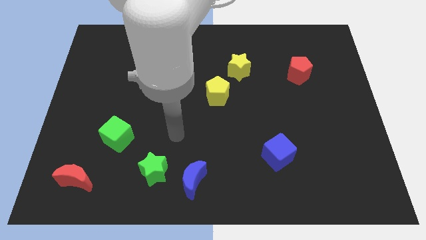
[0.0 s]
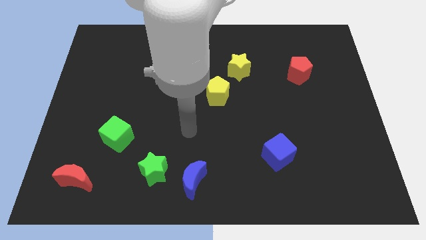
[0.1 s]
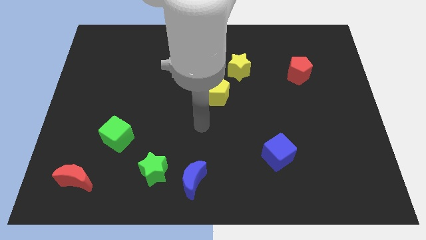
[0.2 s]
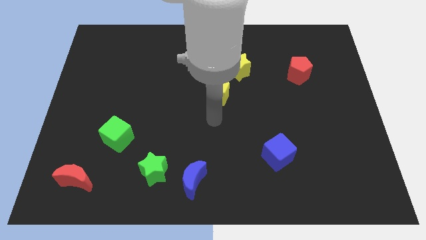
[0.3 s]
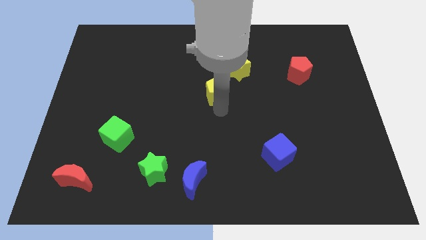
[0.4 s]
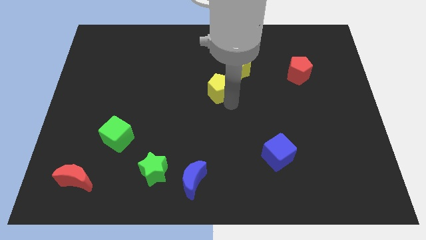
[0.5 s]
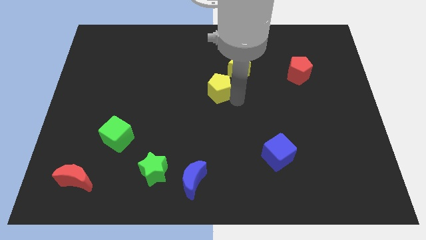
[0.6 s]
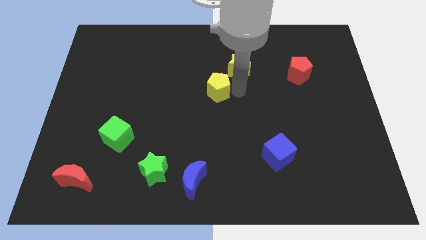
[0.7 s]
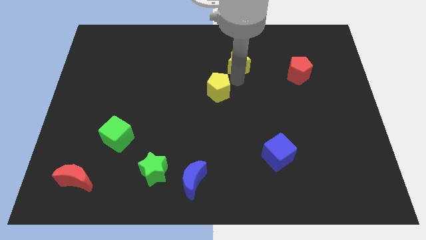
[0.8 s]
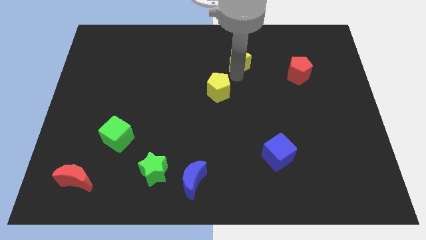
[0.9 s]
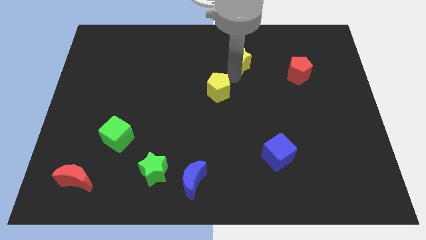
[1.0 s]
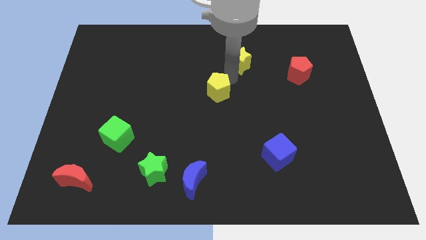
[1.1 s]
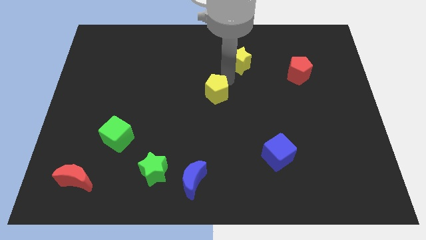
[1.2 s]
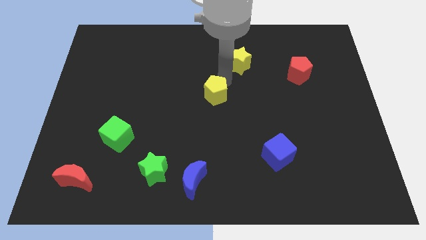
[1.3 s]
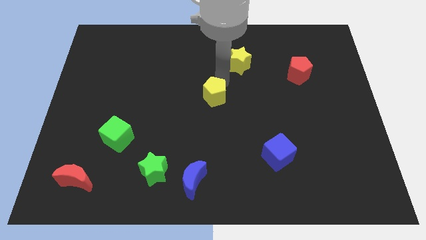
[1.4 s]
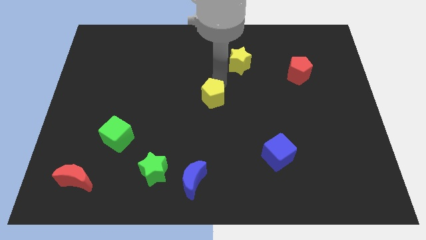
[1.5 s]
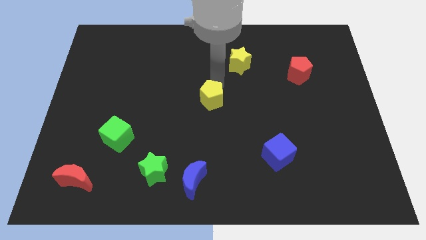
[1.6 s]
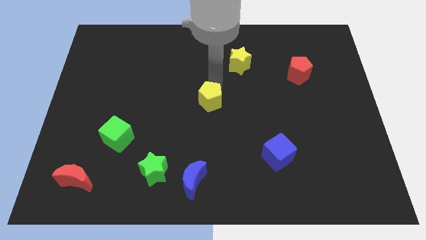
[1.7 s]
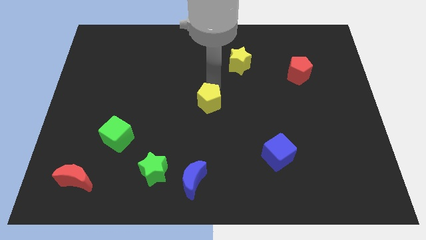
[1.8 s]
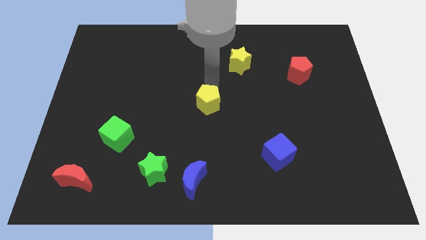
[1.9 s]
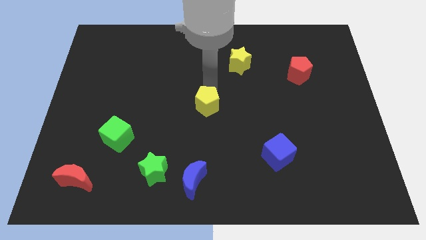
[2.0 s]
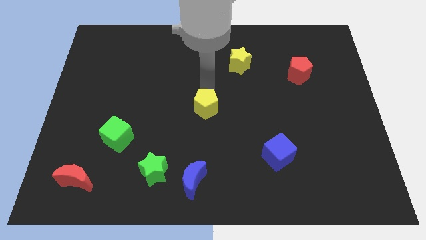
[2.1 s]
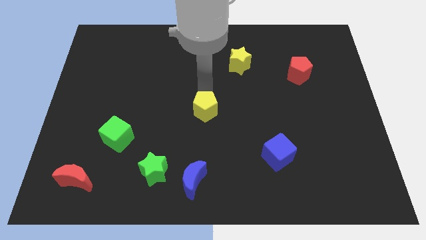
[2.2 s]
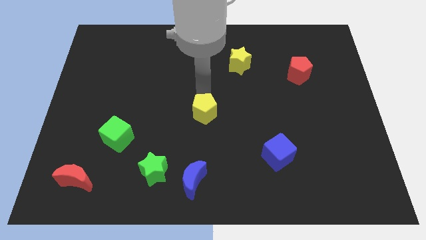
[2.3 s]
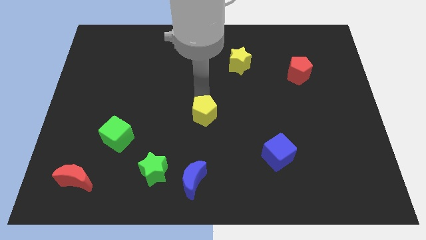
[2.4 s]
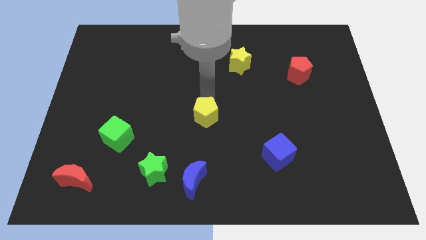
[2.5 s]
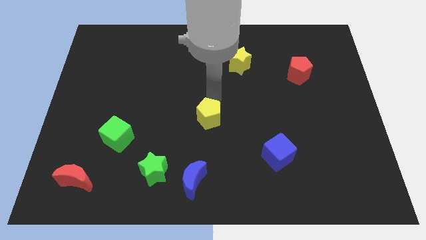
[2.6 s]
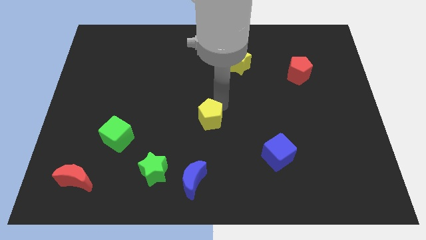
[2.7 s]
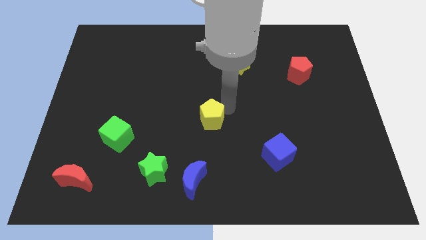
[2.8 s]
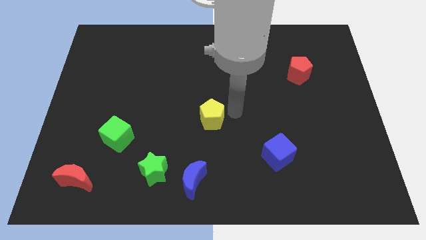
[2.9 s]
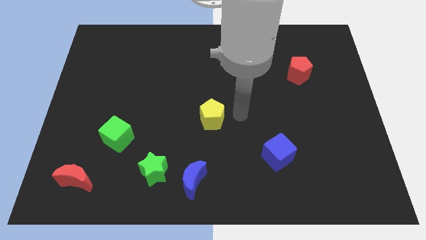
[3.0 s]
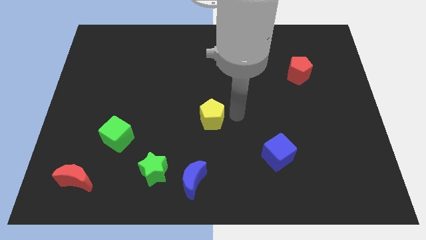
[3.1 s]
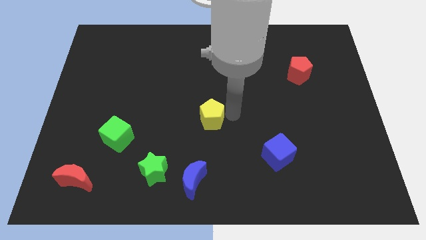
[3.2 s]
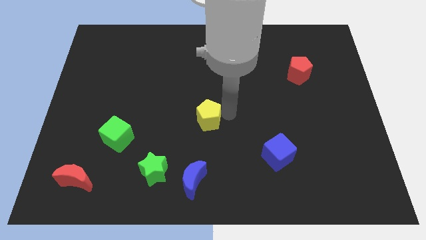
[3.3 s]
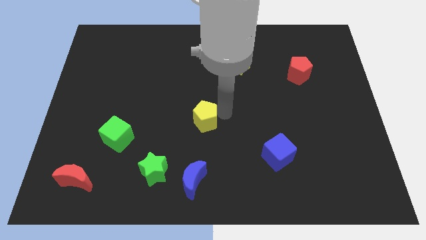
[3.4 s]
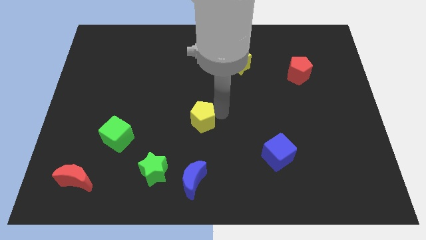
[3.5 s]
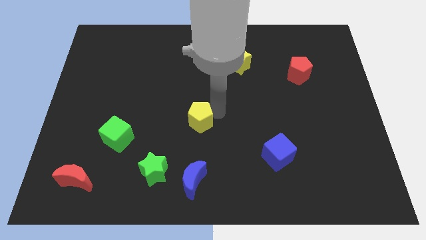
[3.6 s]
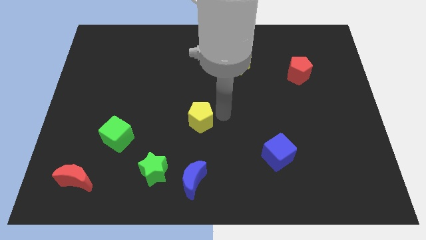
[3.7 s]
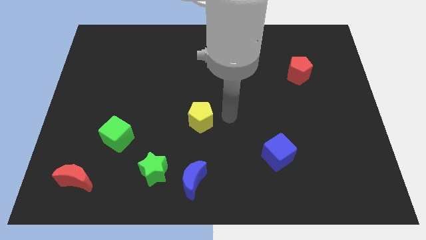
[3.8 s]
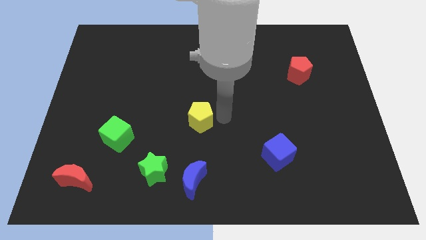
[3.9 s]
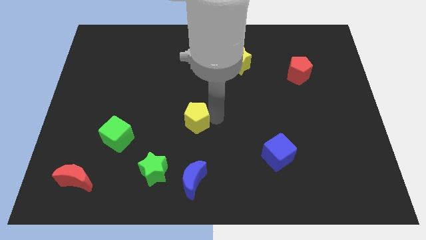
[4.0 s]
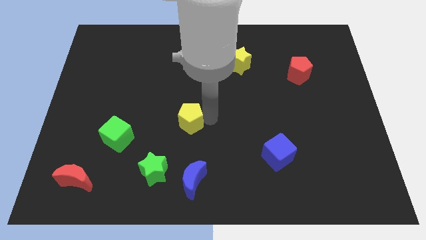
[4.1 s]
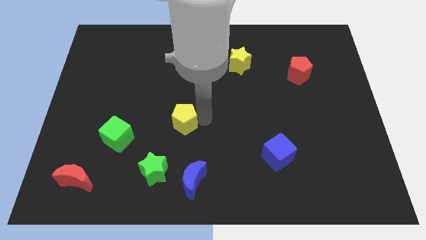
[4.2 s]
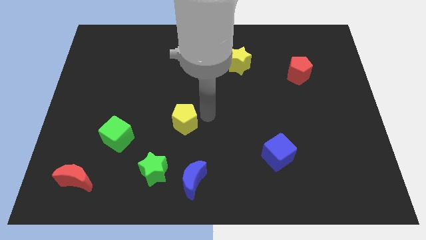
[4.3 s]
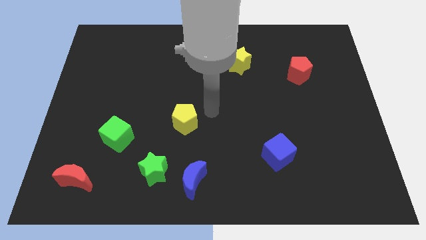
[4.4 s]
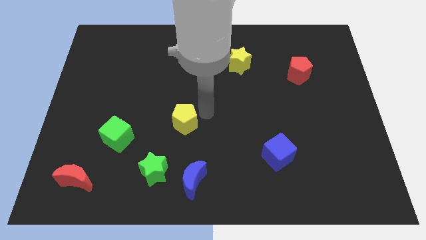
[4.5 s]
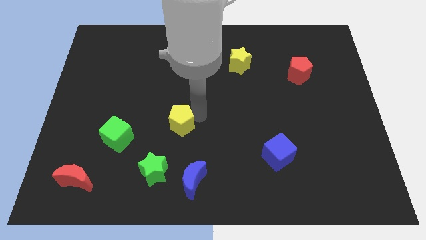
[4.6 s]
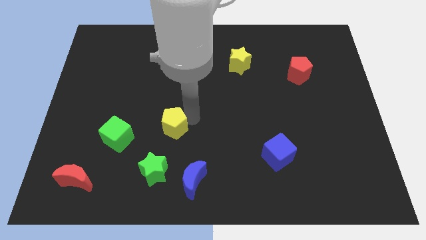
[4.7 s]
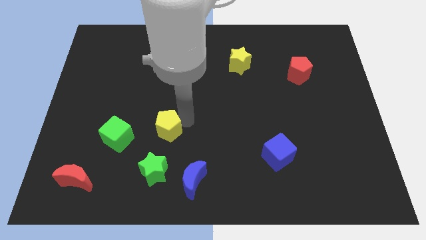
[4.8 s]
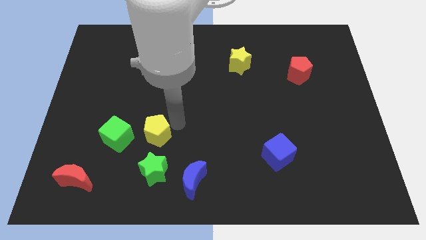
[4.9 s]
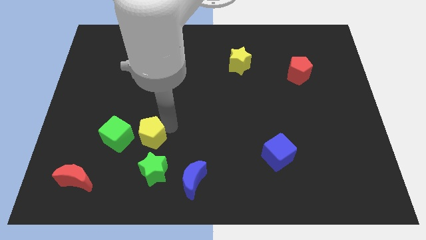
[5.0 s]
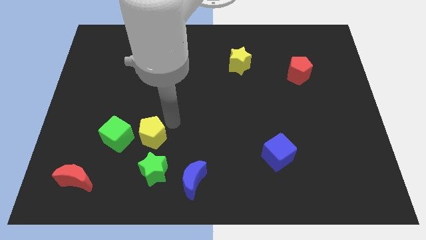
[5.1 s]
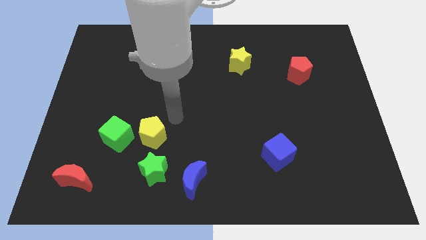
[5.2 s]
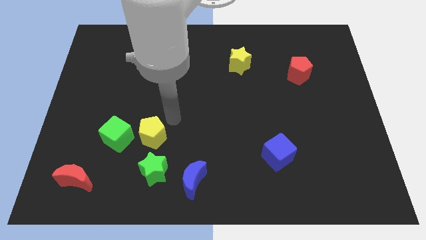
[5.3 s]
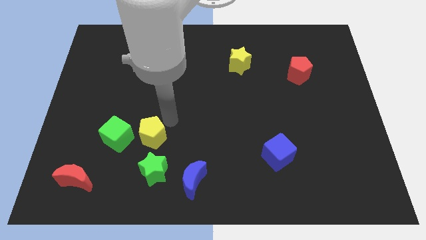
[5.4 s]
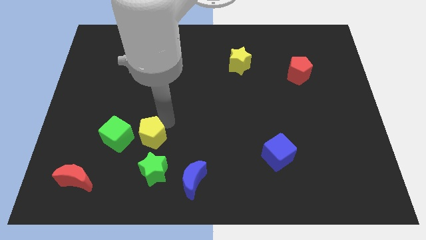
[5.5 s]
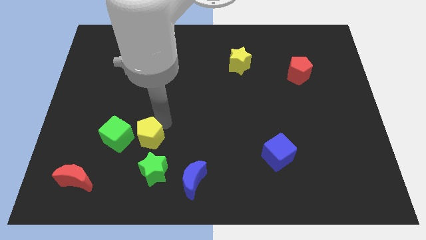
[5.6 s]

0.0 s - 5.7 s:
move the yellow pentagon diagonally up and to the left of the green star

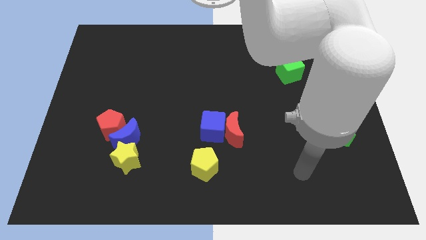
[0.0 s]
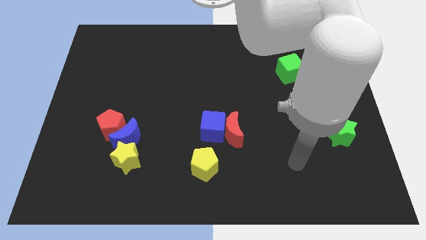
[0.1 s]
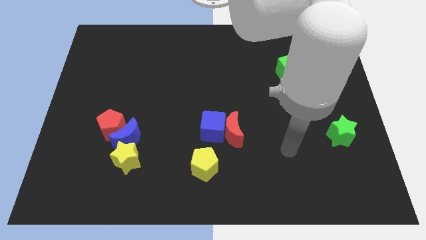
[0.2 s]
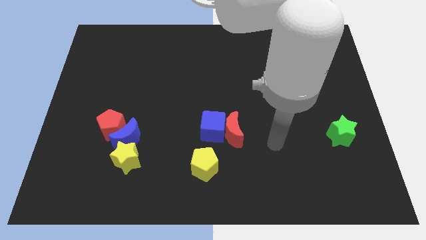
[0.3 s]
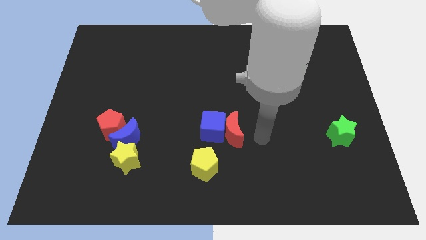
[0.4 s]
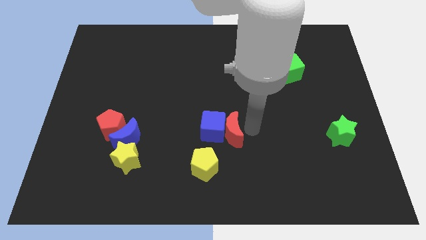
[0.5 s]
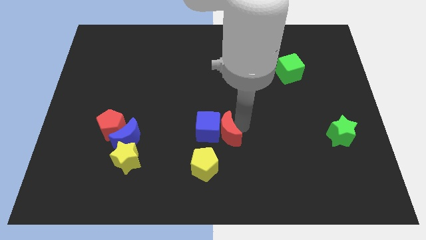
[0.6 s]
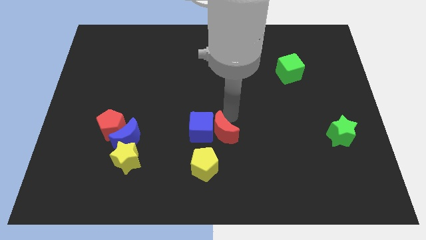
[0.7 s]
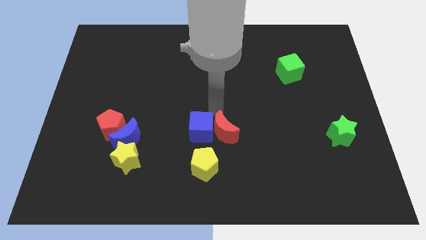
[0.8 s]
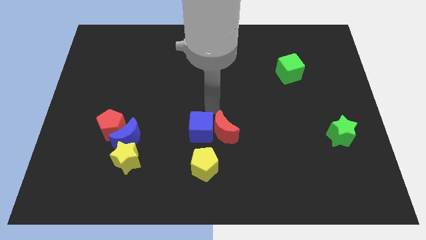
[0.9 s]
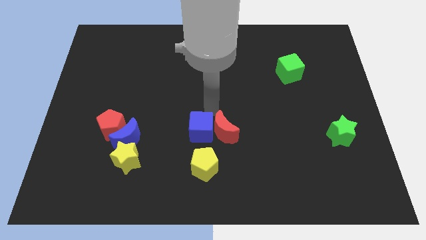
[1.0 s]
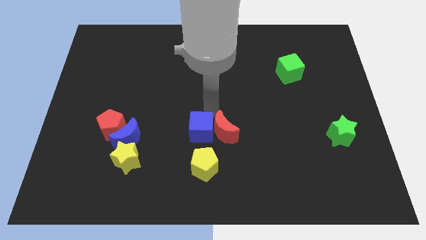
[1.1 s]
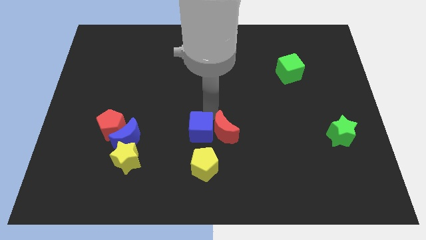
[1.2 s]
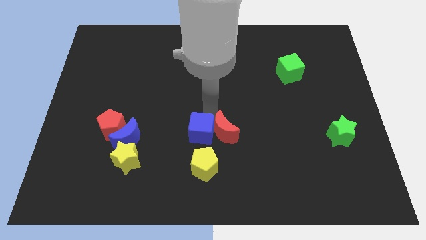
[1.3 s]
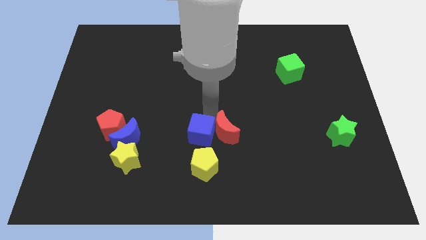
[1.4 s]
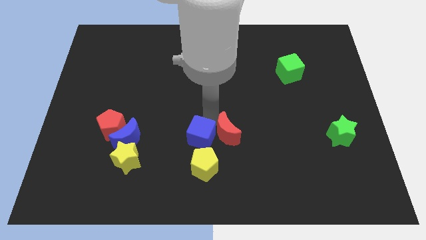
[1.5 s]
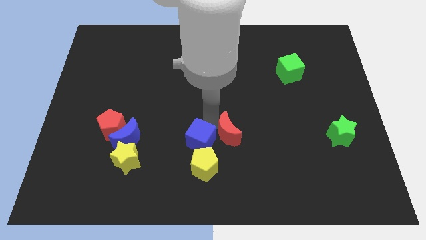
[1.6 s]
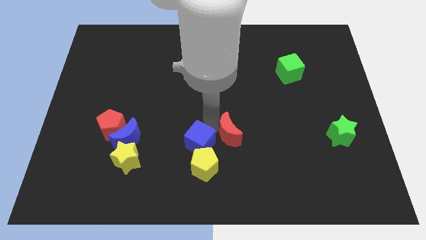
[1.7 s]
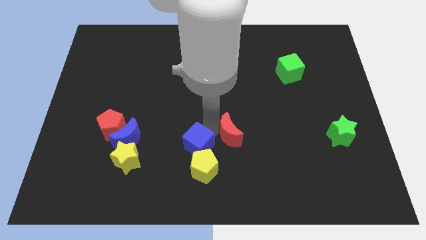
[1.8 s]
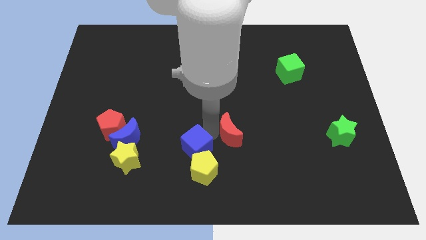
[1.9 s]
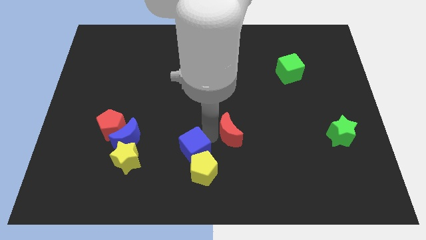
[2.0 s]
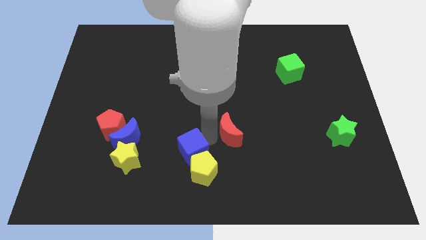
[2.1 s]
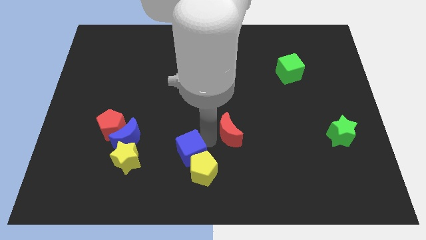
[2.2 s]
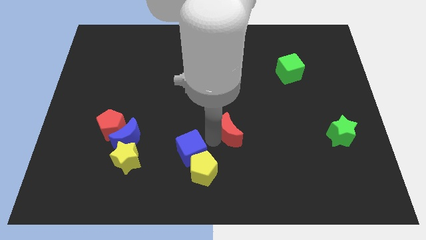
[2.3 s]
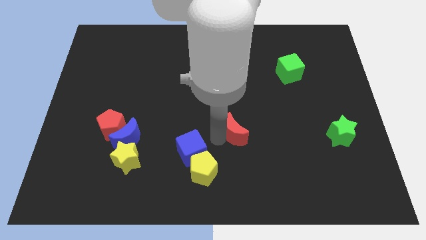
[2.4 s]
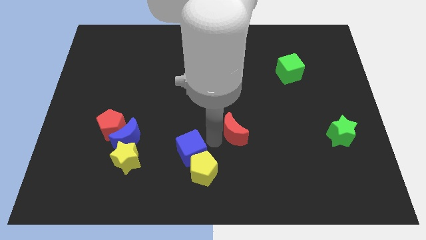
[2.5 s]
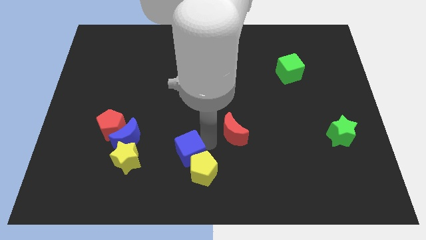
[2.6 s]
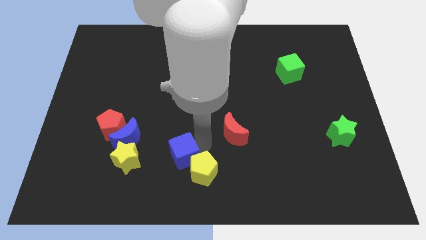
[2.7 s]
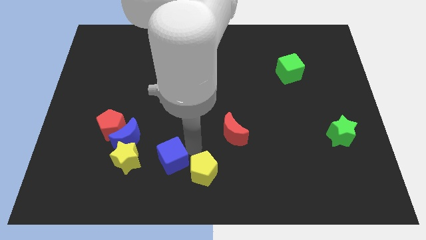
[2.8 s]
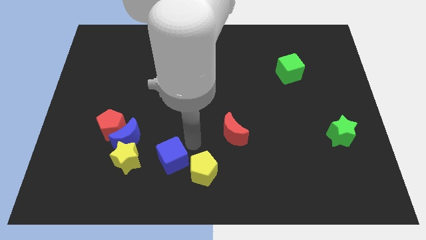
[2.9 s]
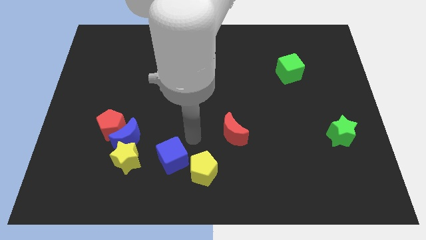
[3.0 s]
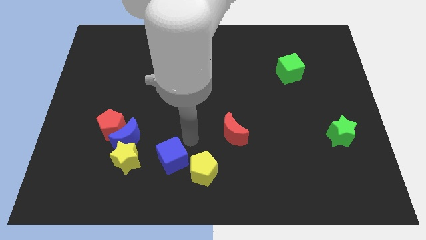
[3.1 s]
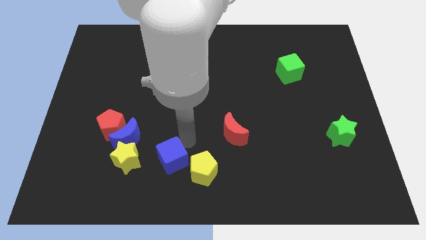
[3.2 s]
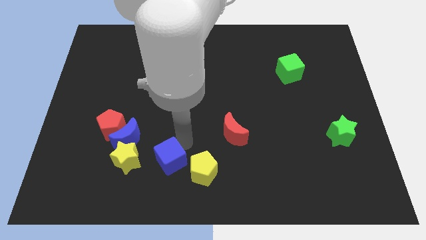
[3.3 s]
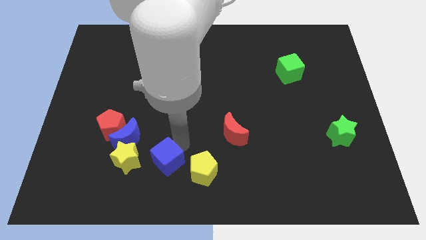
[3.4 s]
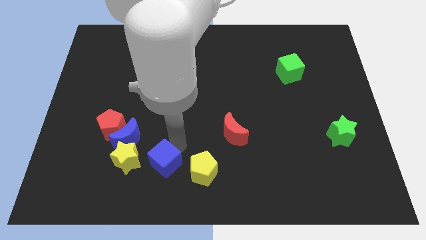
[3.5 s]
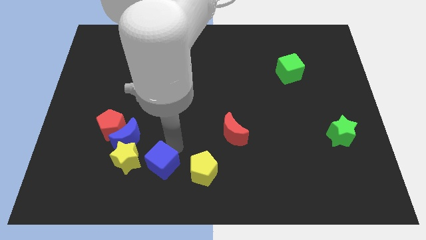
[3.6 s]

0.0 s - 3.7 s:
push the blue cube diagonally down and to the right of the yellow star
